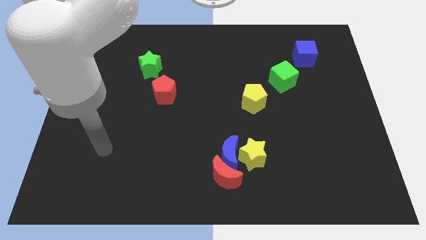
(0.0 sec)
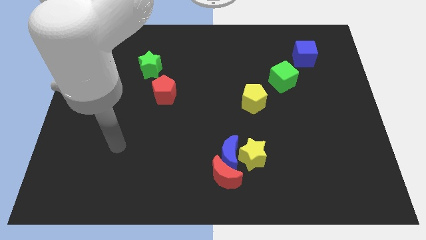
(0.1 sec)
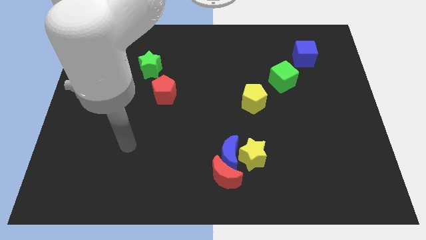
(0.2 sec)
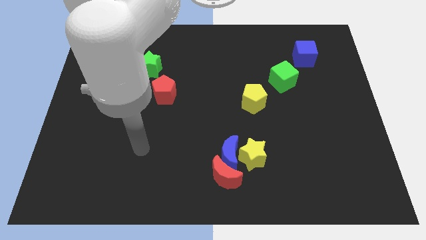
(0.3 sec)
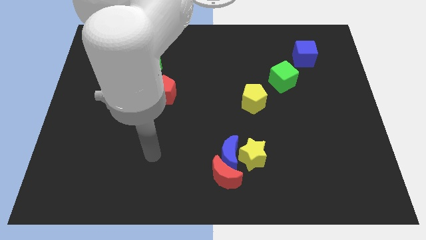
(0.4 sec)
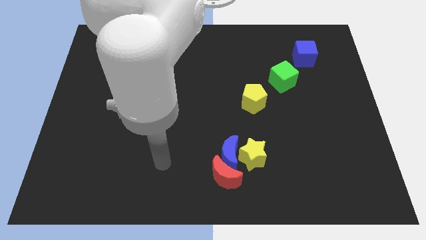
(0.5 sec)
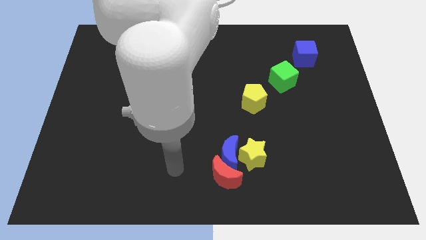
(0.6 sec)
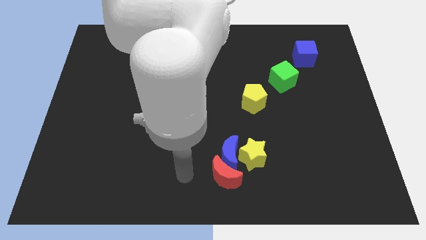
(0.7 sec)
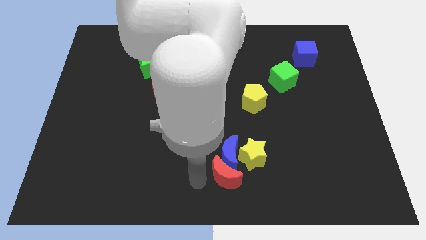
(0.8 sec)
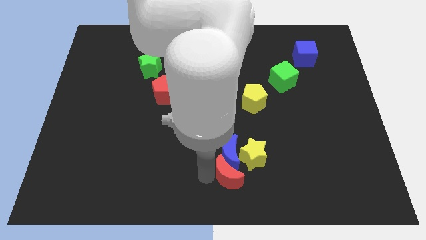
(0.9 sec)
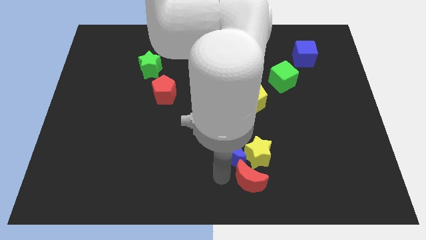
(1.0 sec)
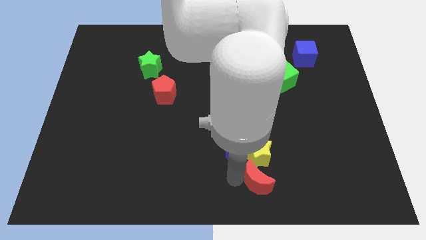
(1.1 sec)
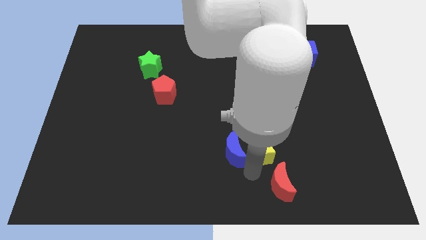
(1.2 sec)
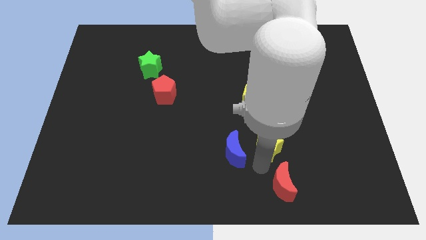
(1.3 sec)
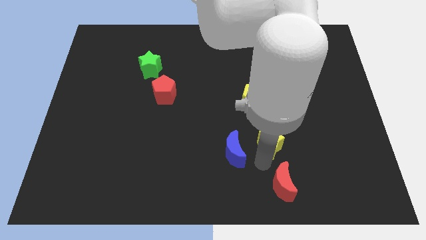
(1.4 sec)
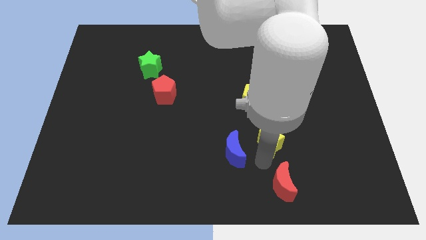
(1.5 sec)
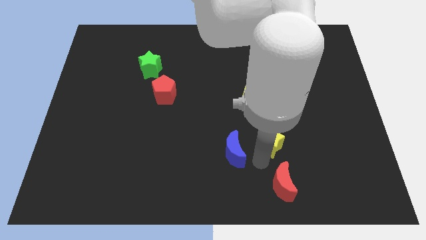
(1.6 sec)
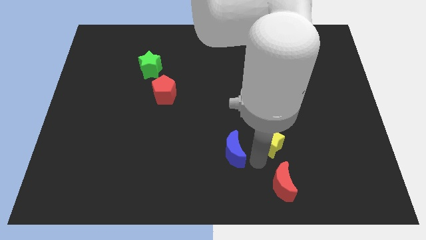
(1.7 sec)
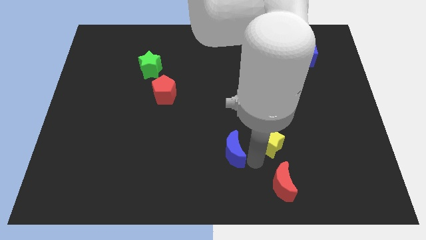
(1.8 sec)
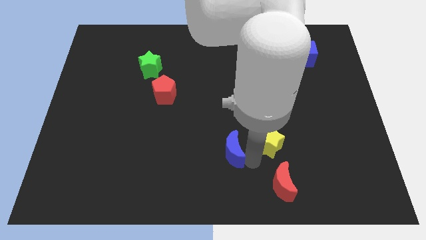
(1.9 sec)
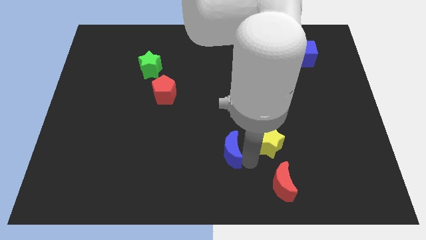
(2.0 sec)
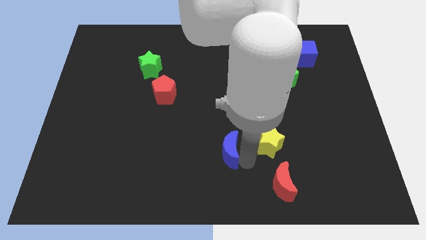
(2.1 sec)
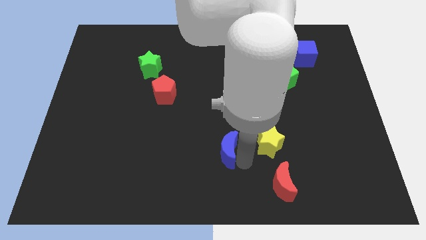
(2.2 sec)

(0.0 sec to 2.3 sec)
pull the blue moon apart from the yellow star and red moon

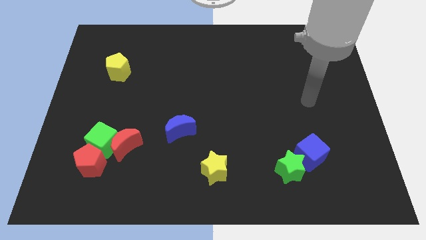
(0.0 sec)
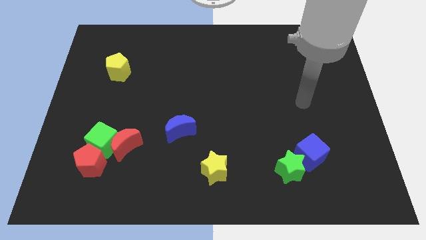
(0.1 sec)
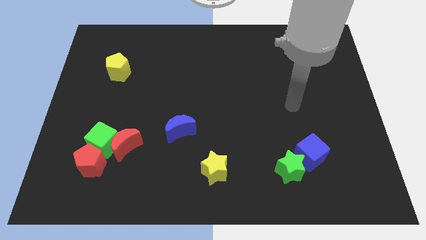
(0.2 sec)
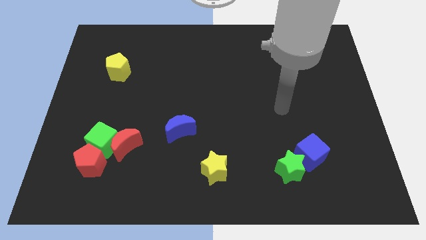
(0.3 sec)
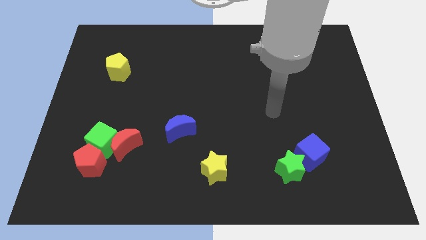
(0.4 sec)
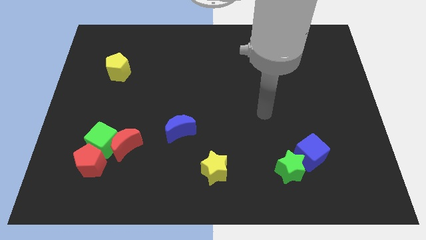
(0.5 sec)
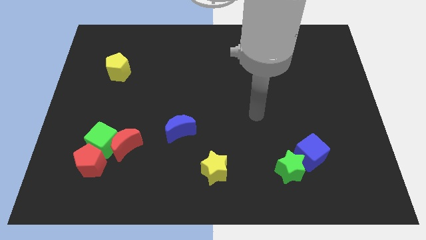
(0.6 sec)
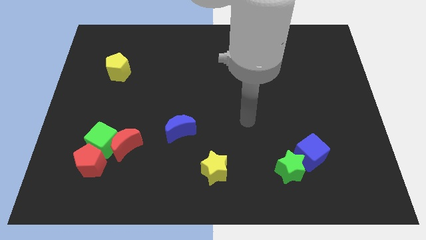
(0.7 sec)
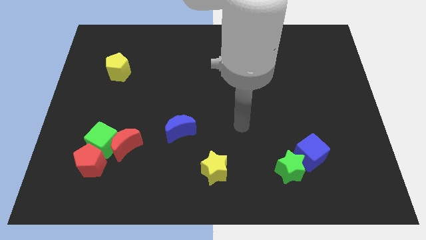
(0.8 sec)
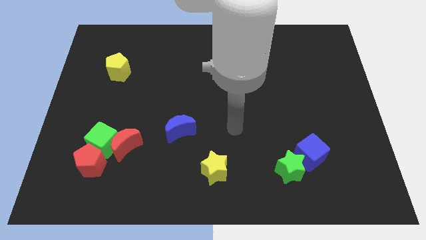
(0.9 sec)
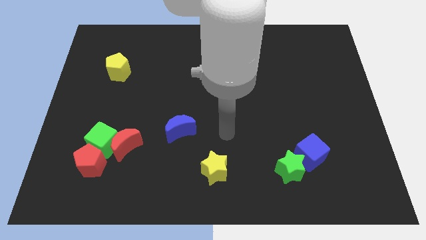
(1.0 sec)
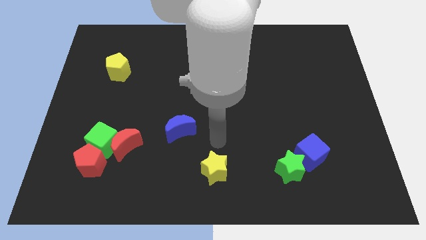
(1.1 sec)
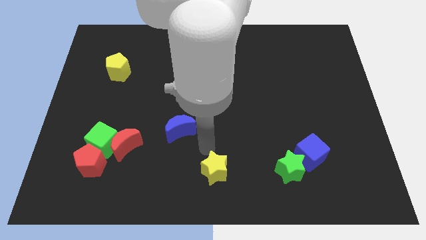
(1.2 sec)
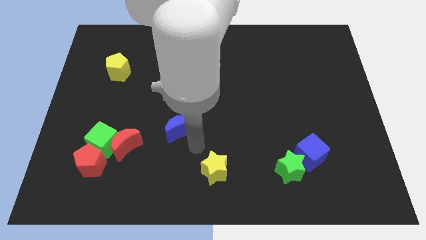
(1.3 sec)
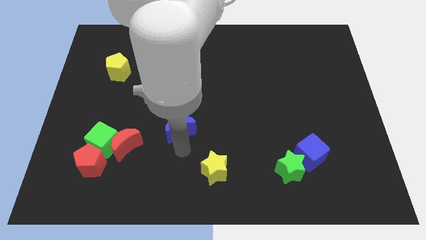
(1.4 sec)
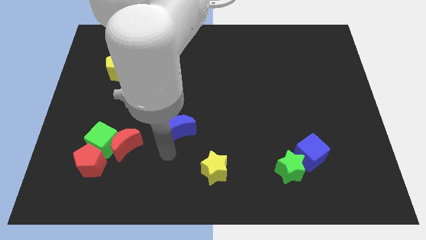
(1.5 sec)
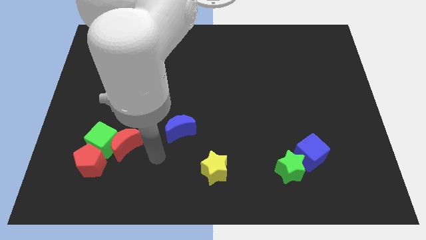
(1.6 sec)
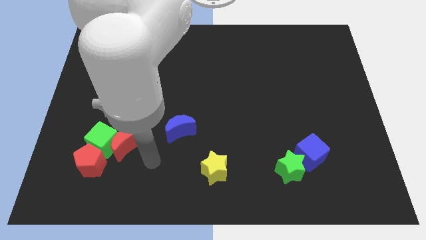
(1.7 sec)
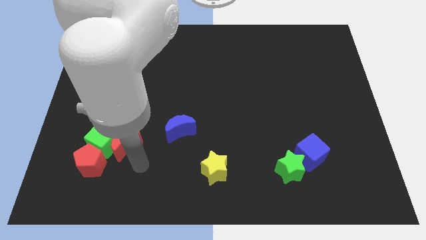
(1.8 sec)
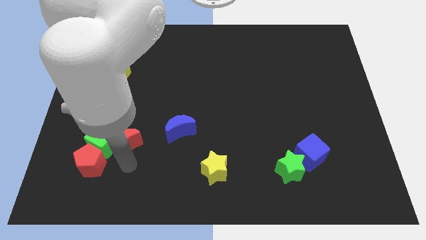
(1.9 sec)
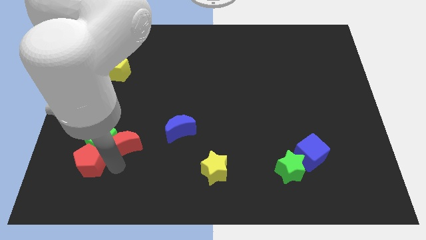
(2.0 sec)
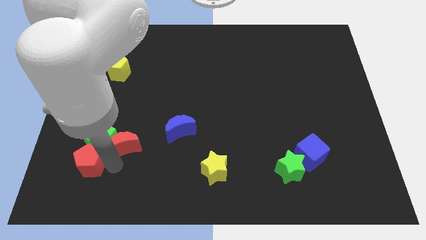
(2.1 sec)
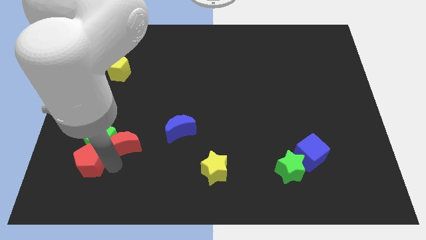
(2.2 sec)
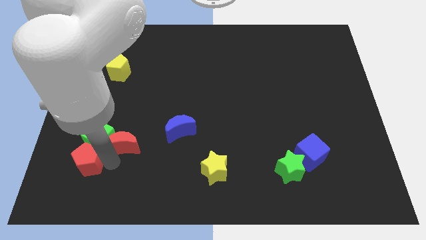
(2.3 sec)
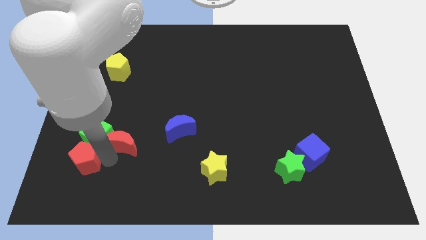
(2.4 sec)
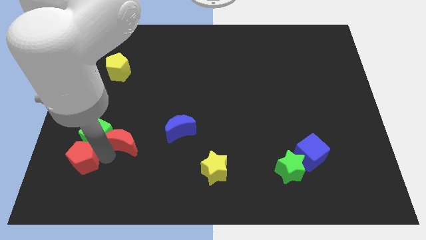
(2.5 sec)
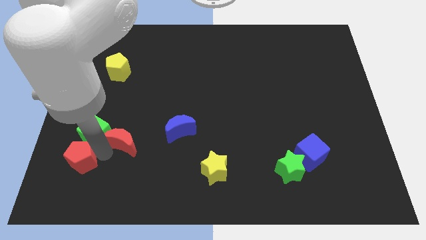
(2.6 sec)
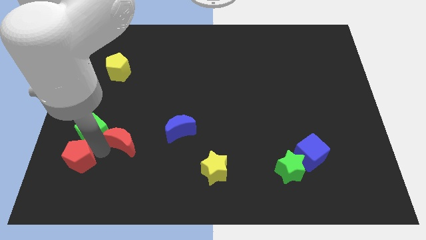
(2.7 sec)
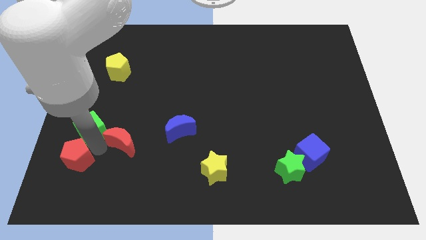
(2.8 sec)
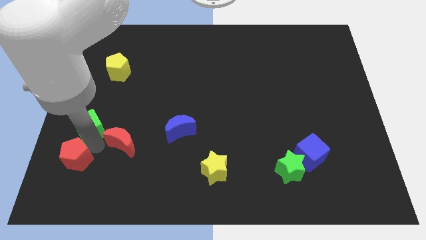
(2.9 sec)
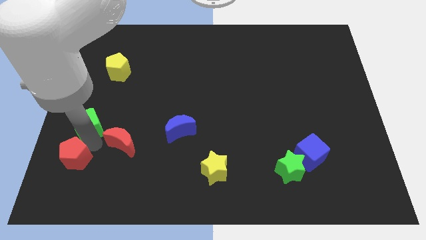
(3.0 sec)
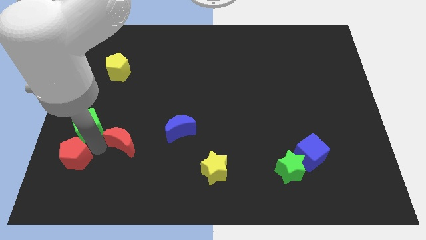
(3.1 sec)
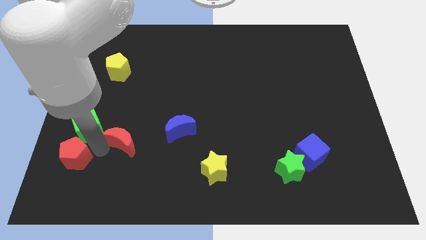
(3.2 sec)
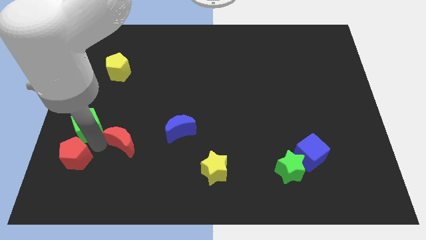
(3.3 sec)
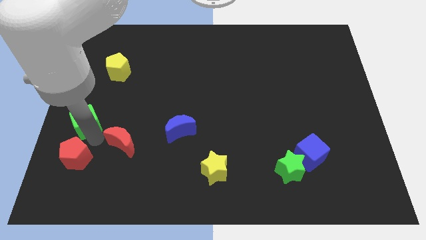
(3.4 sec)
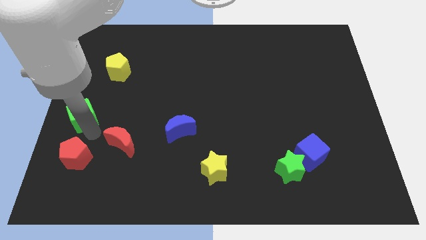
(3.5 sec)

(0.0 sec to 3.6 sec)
move the green cube away from the red moon and red pentagon

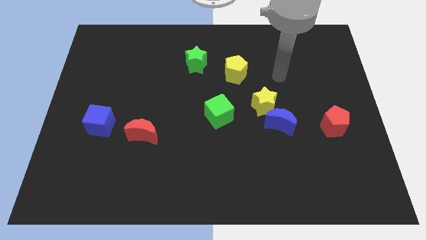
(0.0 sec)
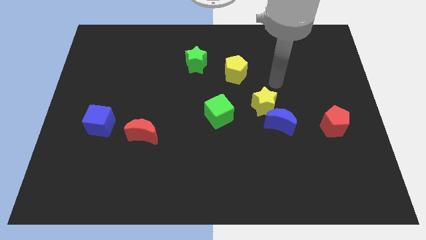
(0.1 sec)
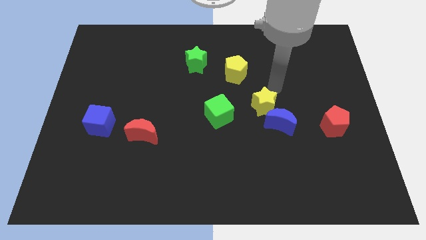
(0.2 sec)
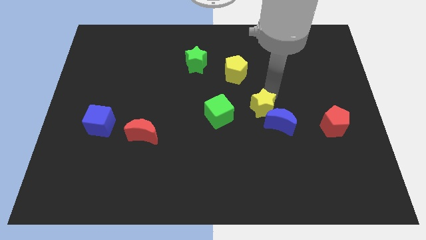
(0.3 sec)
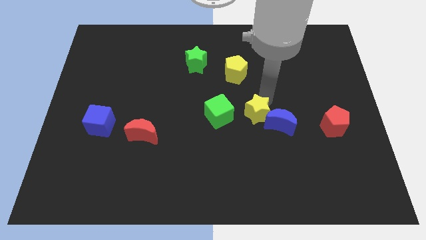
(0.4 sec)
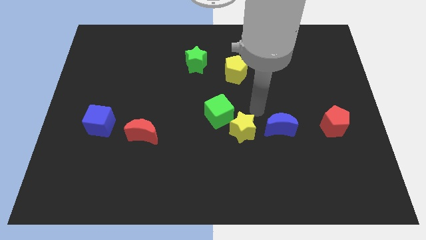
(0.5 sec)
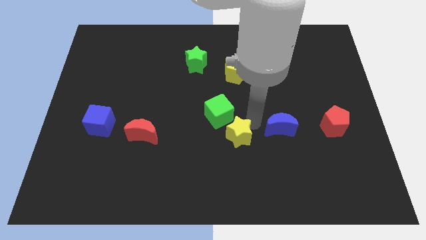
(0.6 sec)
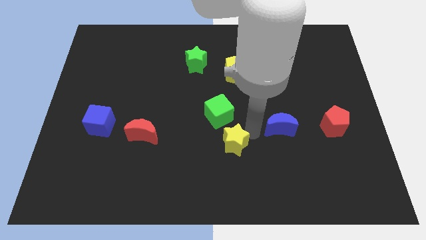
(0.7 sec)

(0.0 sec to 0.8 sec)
separate the blue moon from the yellow star

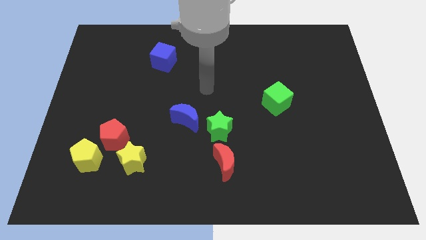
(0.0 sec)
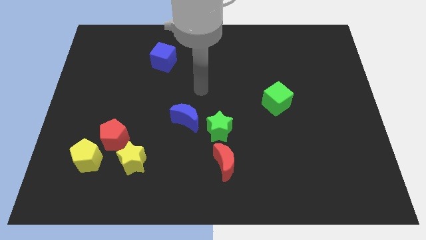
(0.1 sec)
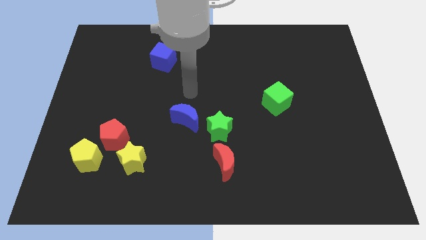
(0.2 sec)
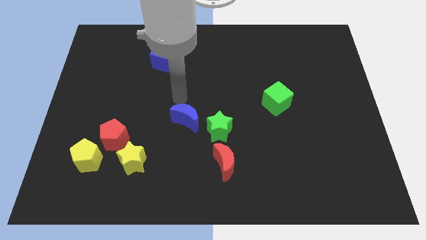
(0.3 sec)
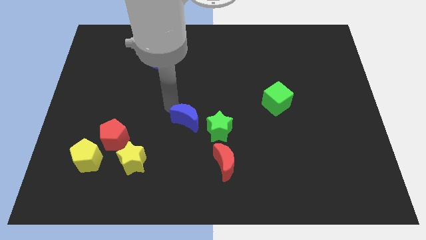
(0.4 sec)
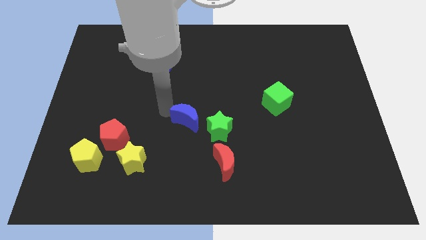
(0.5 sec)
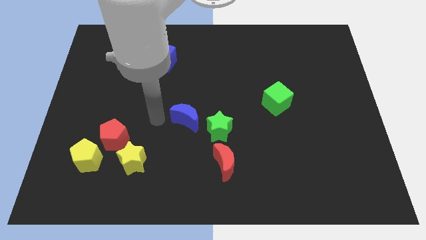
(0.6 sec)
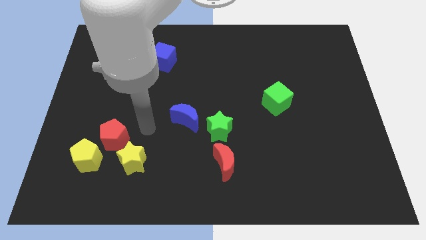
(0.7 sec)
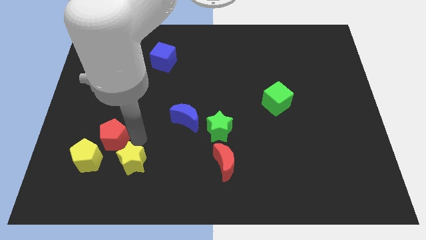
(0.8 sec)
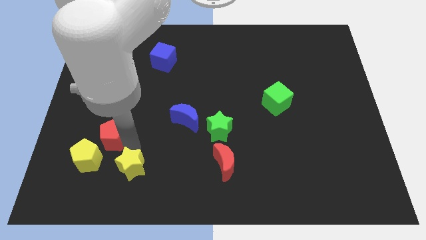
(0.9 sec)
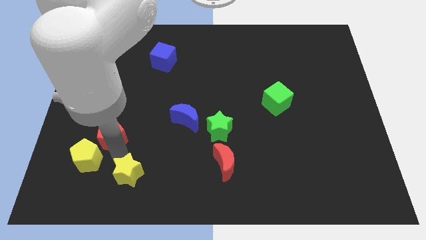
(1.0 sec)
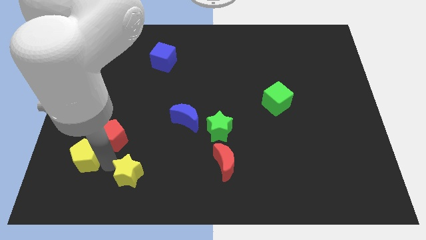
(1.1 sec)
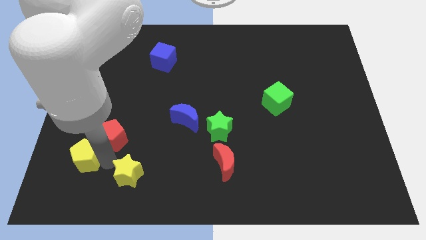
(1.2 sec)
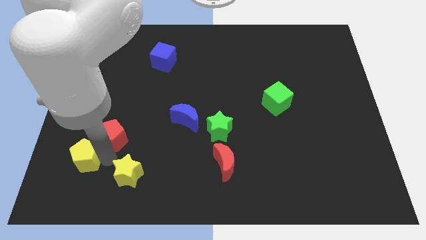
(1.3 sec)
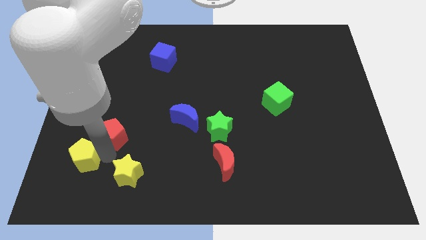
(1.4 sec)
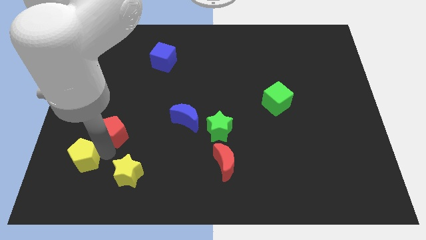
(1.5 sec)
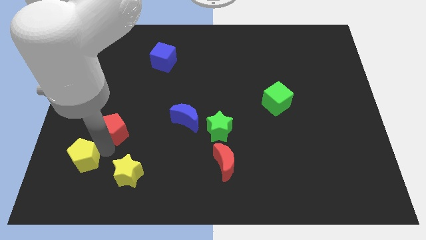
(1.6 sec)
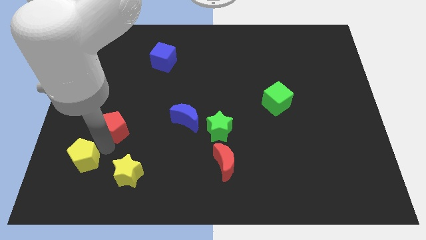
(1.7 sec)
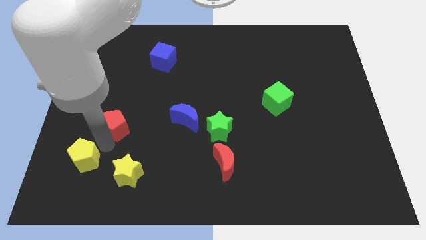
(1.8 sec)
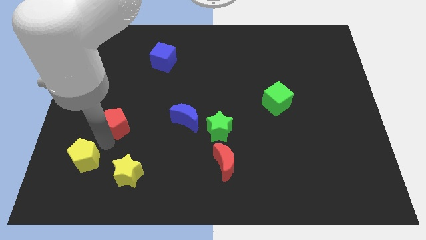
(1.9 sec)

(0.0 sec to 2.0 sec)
move the red pentagon away from the yellow pentagon and yellow star

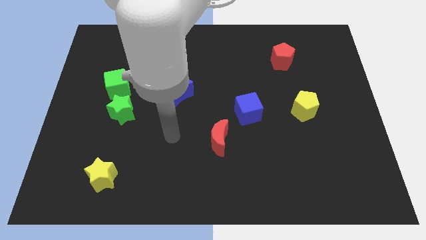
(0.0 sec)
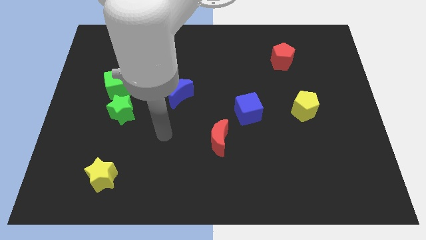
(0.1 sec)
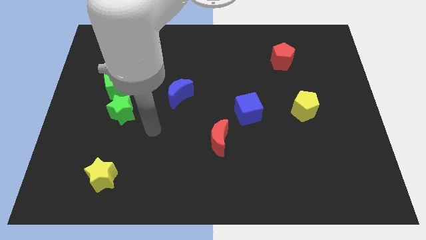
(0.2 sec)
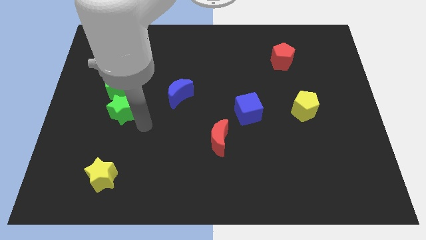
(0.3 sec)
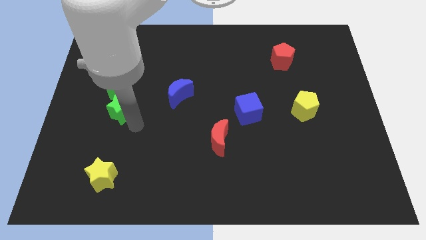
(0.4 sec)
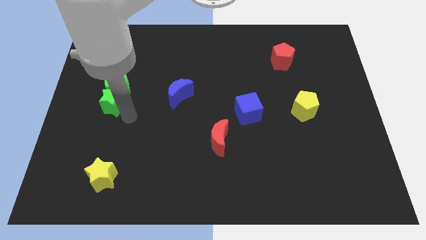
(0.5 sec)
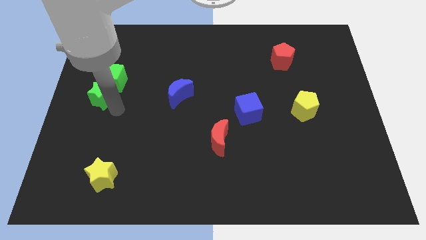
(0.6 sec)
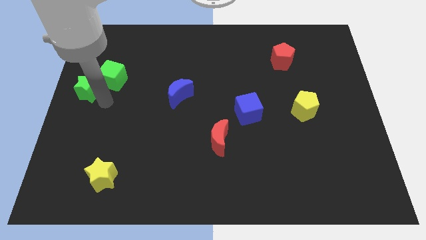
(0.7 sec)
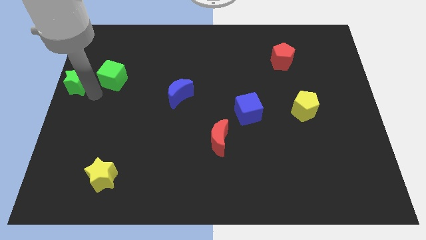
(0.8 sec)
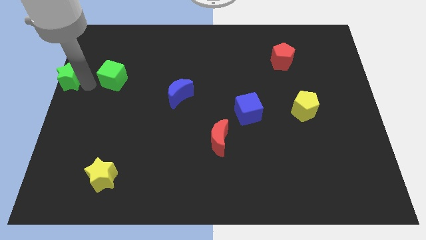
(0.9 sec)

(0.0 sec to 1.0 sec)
move the green cube away from the green star
